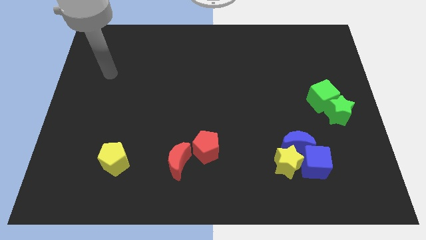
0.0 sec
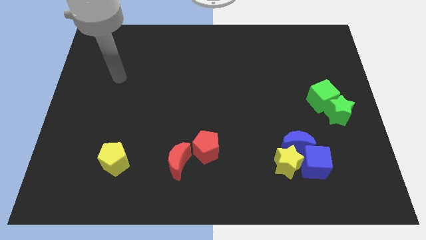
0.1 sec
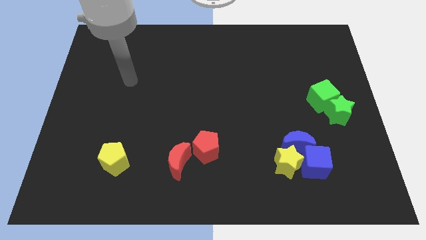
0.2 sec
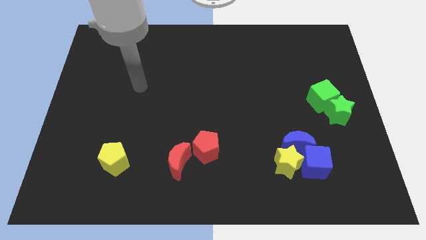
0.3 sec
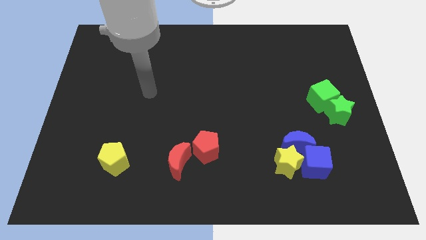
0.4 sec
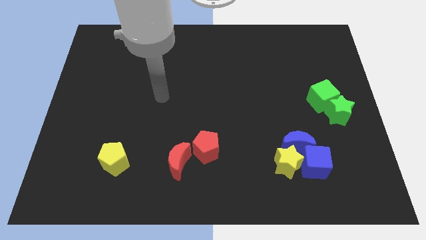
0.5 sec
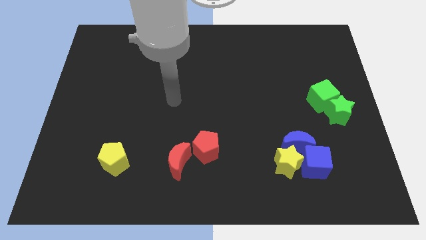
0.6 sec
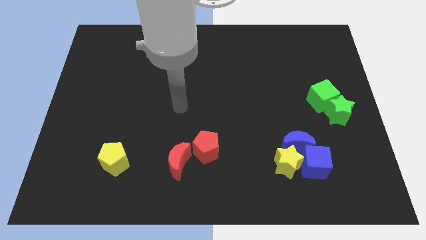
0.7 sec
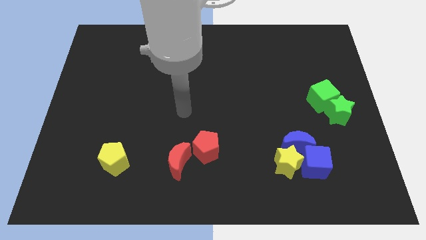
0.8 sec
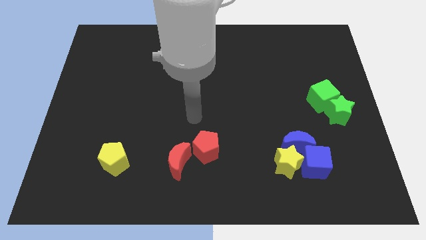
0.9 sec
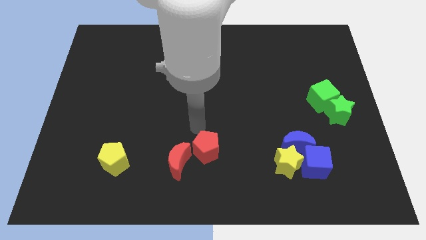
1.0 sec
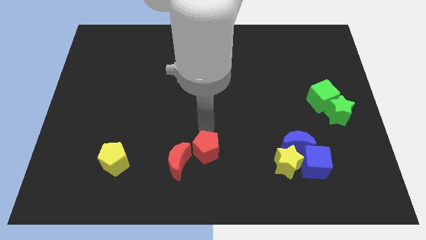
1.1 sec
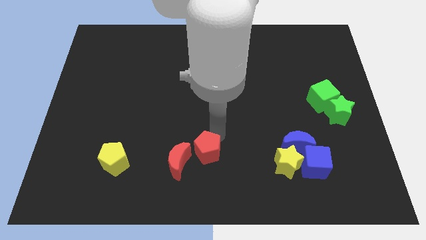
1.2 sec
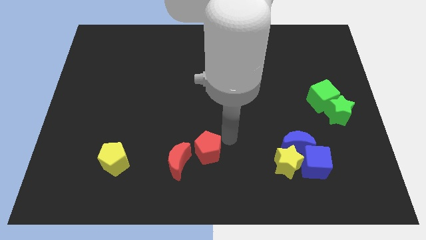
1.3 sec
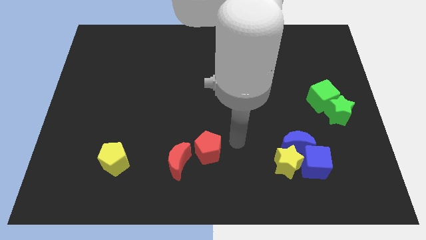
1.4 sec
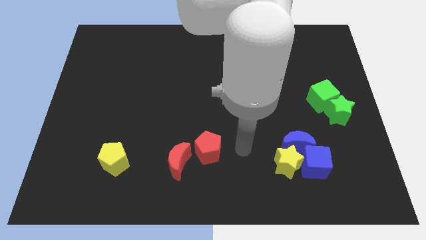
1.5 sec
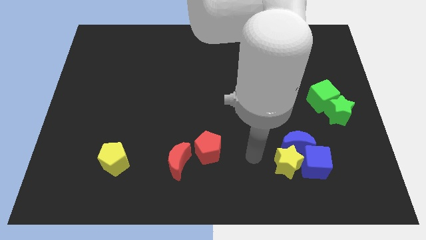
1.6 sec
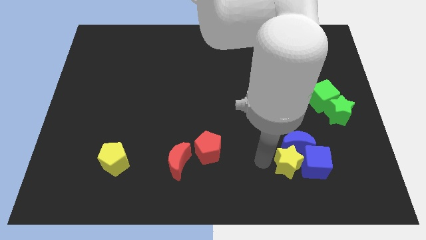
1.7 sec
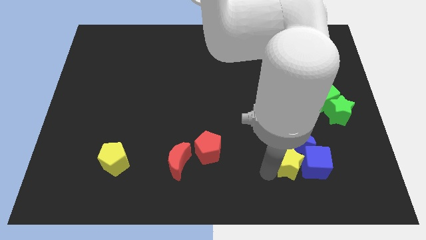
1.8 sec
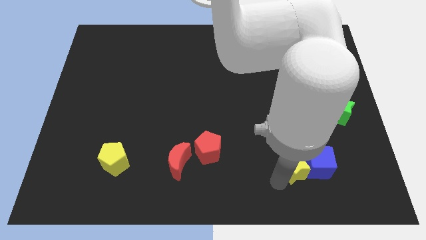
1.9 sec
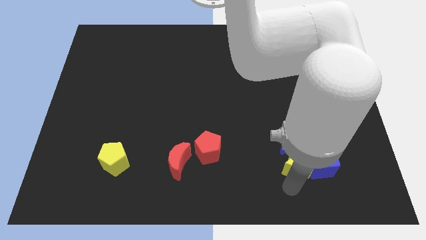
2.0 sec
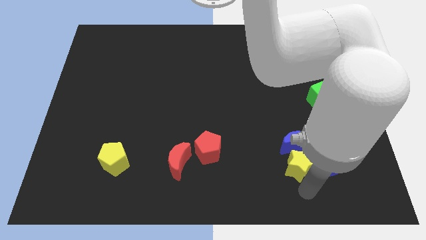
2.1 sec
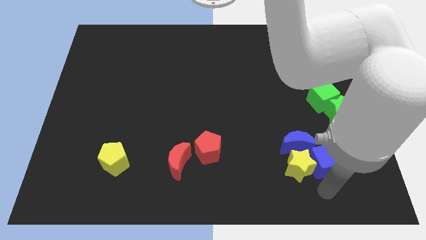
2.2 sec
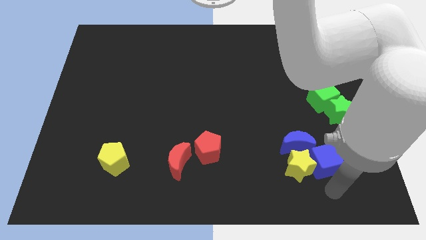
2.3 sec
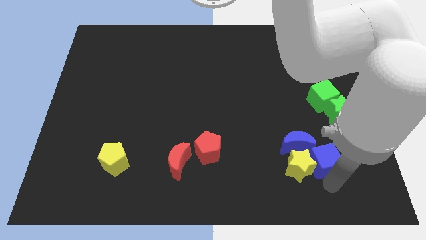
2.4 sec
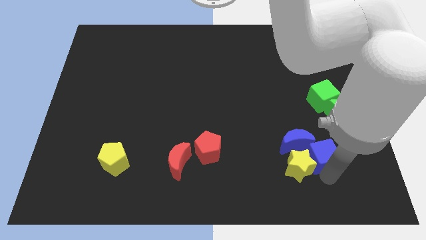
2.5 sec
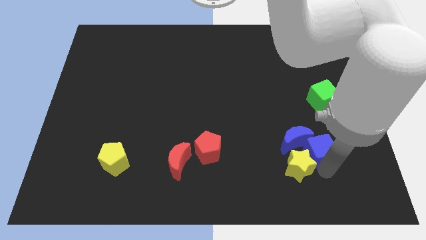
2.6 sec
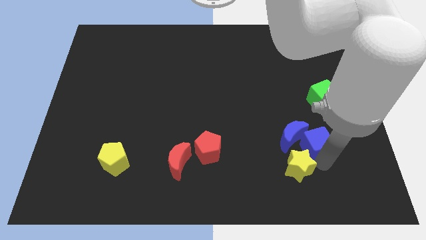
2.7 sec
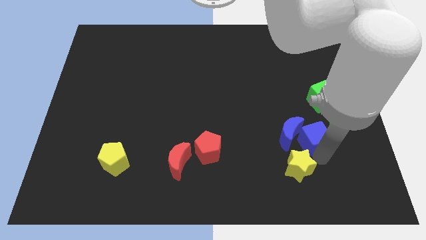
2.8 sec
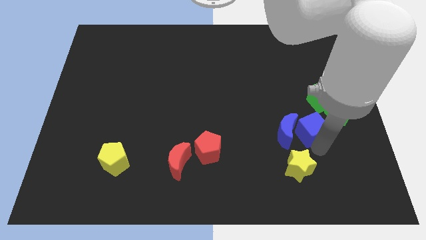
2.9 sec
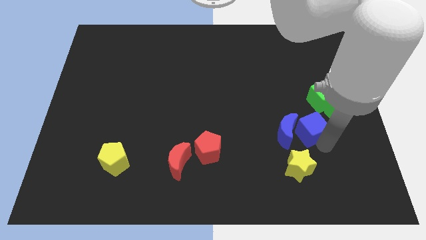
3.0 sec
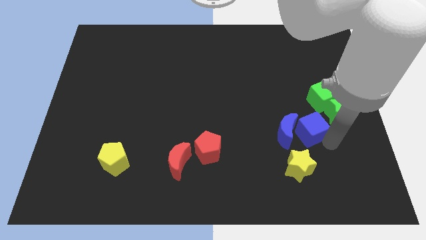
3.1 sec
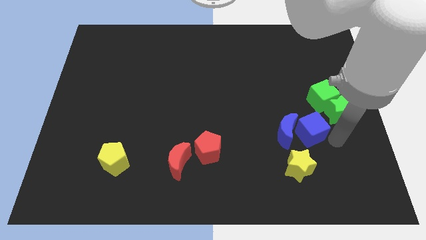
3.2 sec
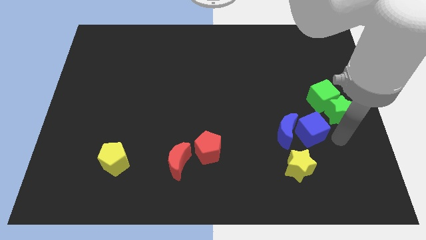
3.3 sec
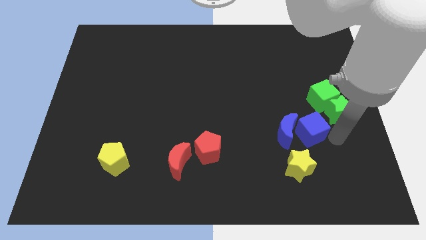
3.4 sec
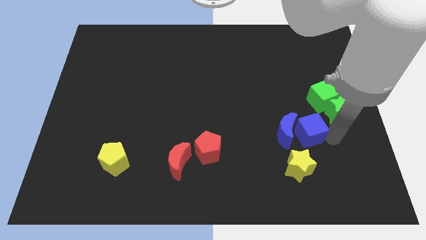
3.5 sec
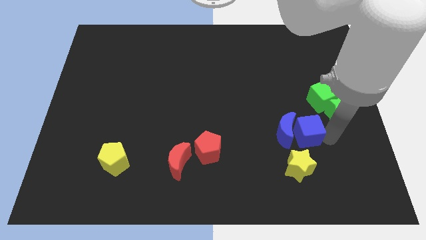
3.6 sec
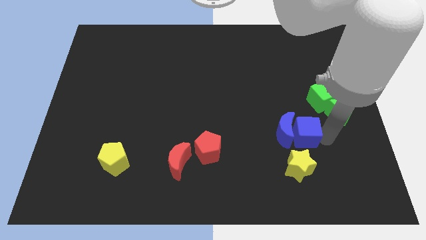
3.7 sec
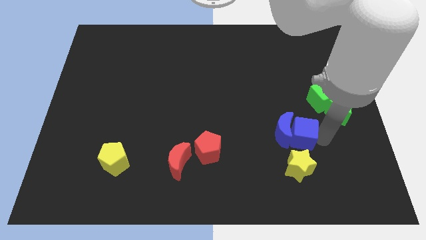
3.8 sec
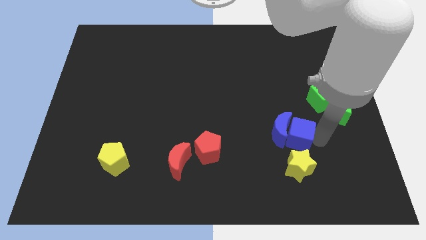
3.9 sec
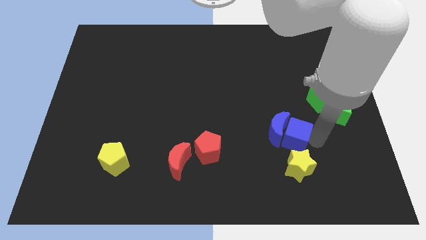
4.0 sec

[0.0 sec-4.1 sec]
slightly push the blue cube upwards and then left

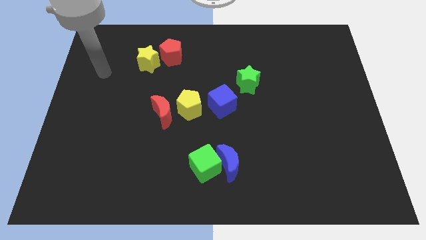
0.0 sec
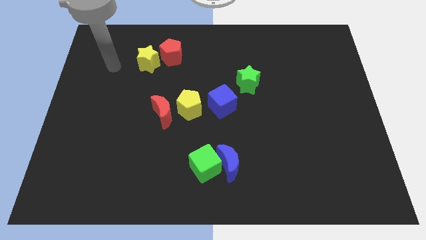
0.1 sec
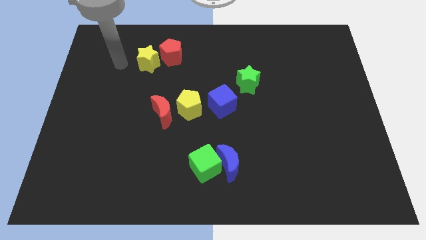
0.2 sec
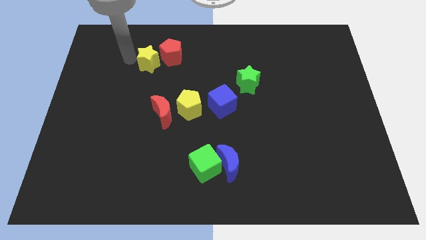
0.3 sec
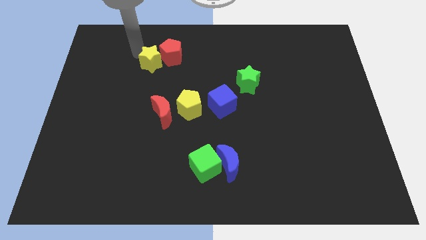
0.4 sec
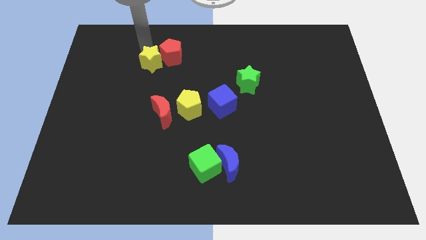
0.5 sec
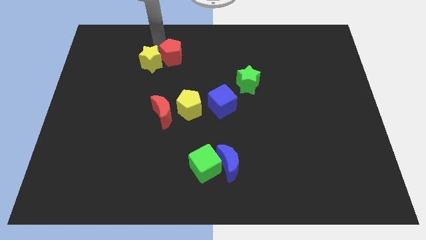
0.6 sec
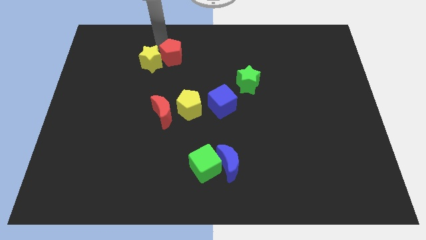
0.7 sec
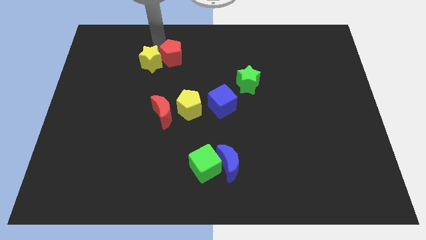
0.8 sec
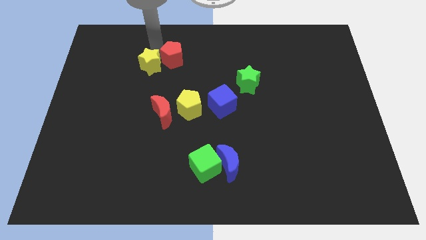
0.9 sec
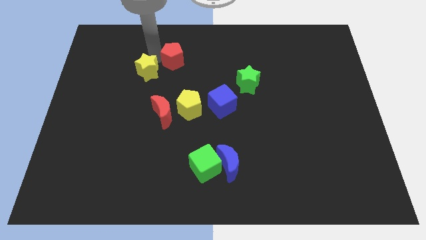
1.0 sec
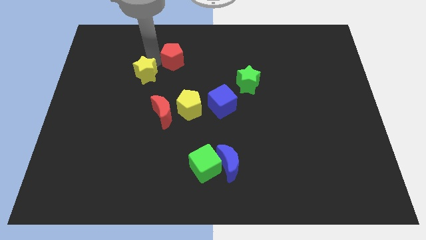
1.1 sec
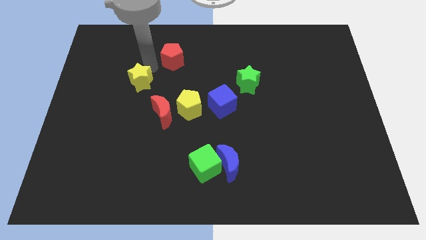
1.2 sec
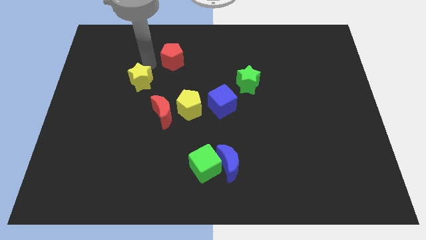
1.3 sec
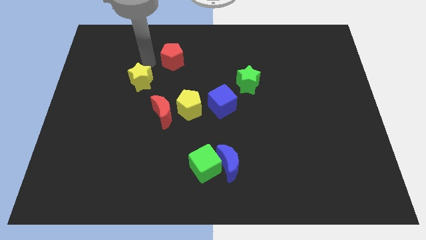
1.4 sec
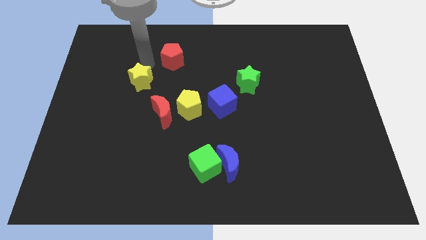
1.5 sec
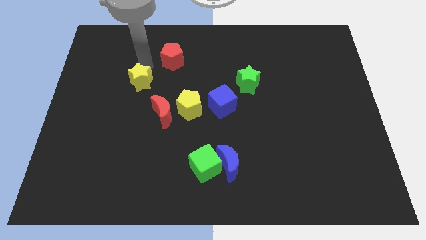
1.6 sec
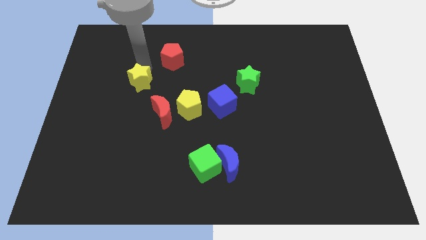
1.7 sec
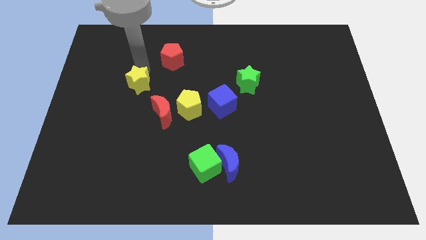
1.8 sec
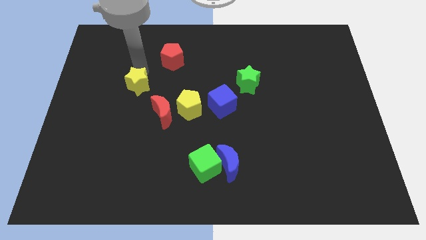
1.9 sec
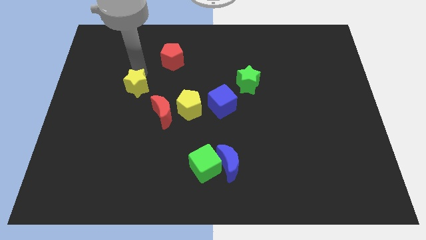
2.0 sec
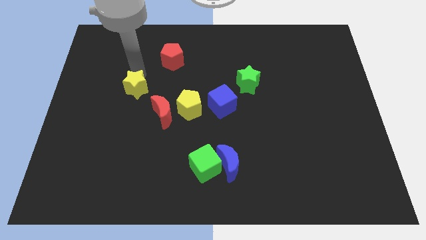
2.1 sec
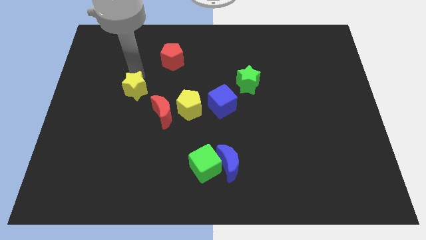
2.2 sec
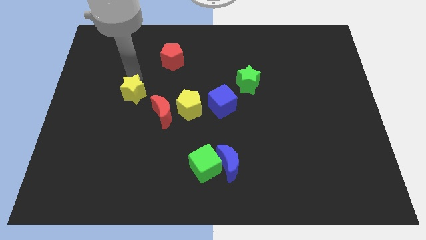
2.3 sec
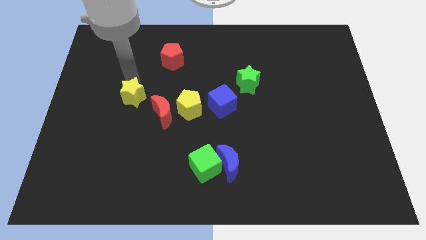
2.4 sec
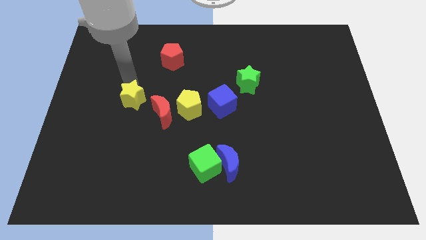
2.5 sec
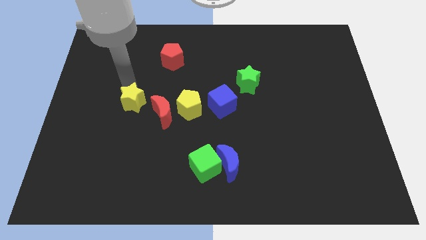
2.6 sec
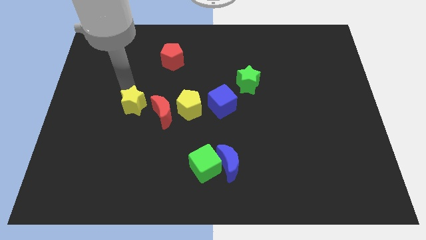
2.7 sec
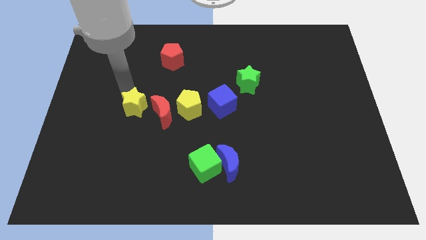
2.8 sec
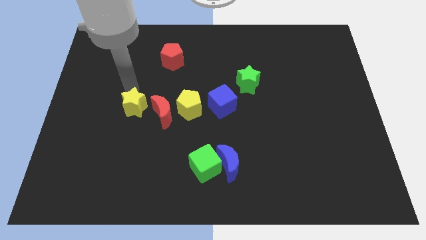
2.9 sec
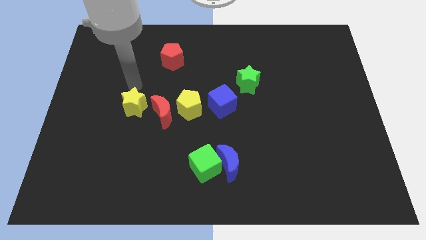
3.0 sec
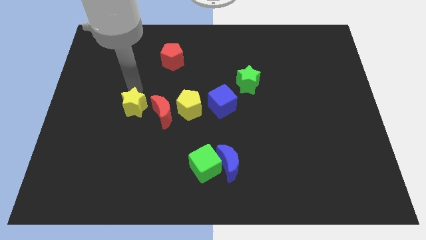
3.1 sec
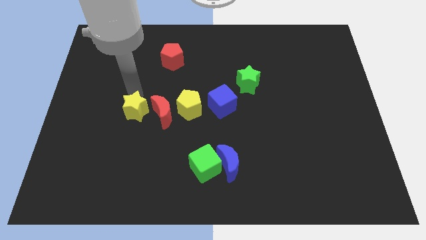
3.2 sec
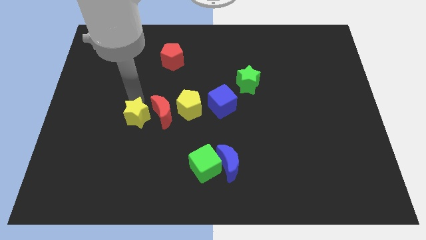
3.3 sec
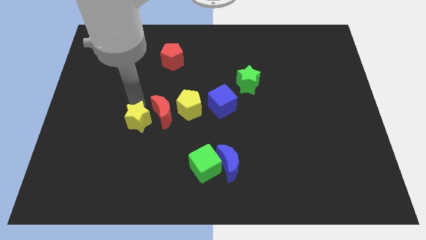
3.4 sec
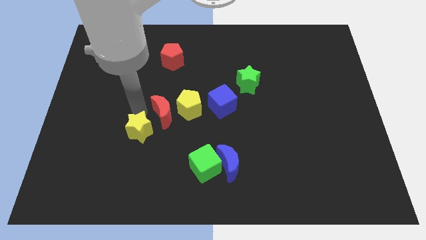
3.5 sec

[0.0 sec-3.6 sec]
slide the yellow star down

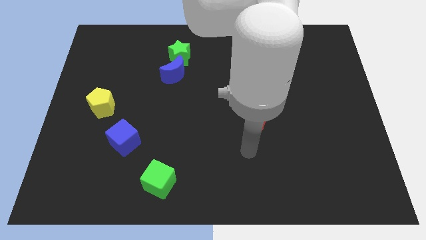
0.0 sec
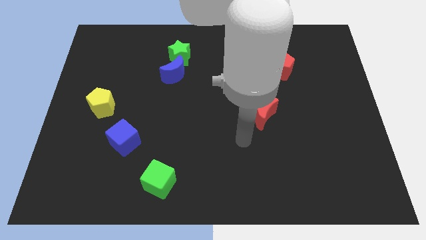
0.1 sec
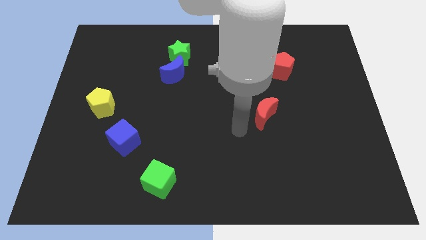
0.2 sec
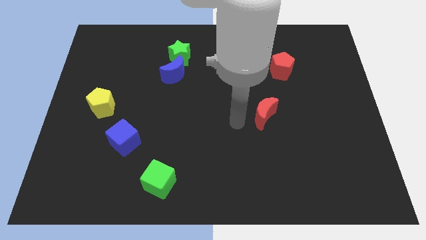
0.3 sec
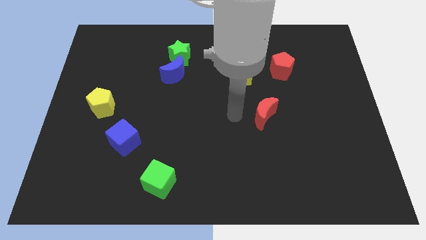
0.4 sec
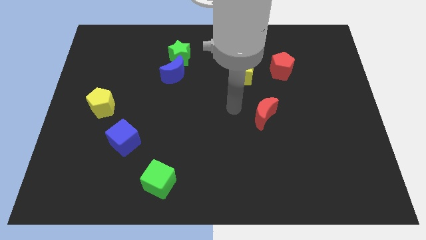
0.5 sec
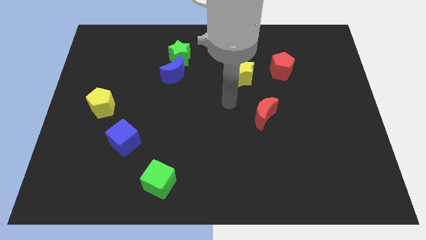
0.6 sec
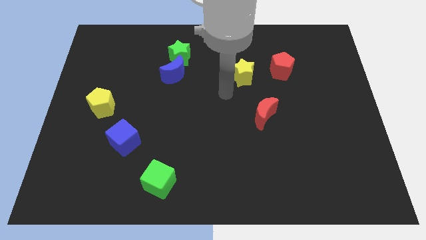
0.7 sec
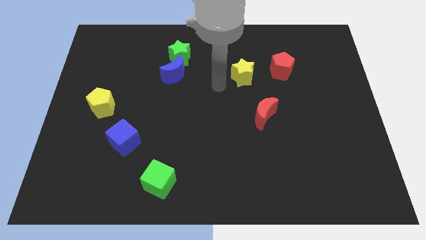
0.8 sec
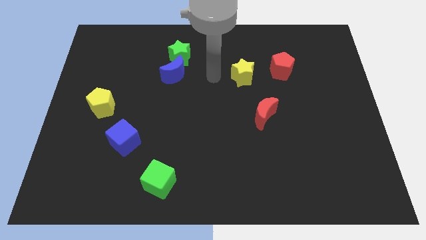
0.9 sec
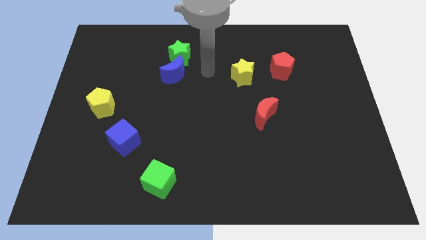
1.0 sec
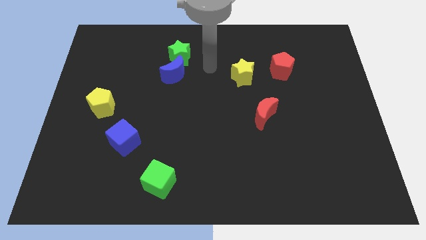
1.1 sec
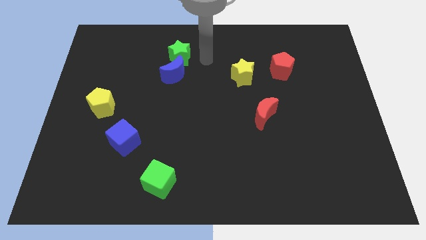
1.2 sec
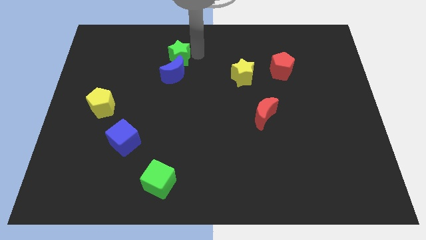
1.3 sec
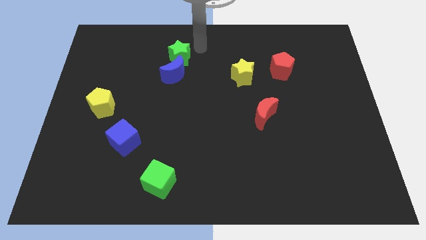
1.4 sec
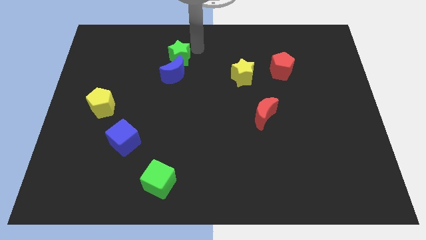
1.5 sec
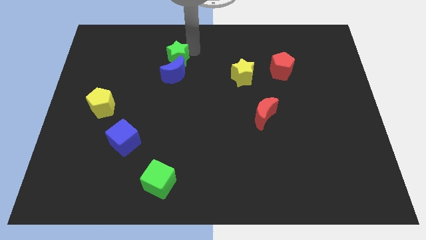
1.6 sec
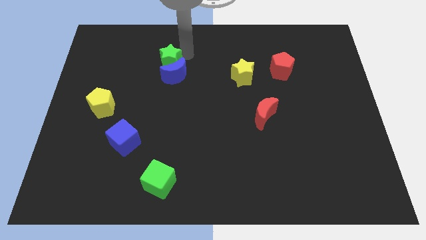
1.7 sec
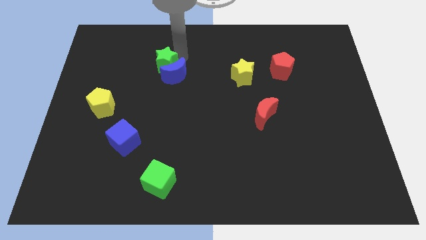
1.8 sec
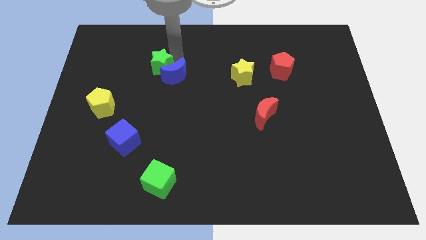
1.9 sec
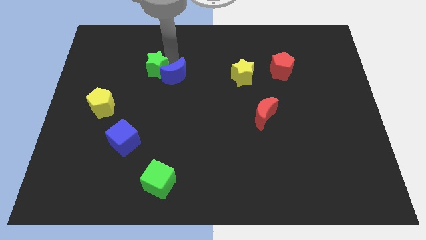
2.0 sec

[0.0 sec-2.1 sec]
move the green star down and then to the left somewhat
